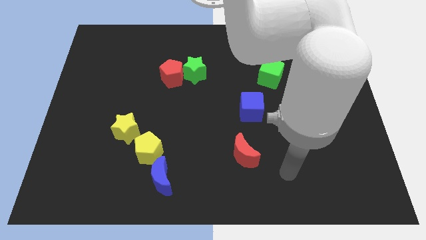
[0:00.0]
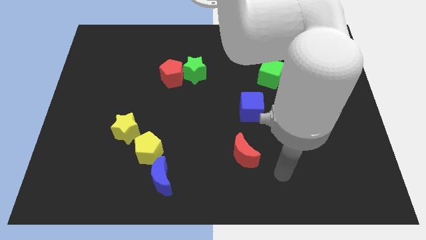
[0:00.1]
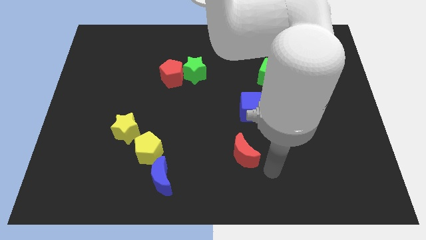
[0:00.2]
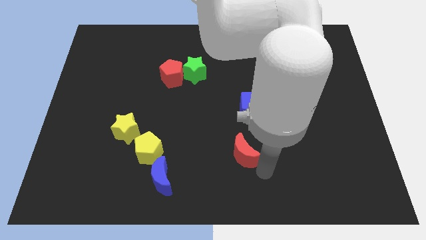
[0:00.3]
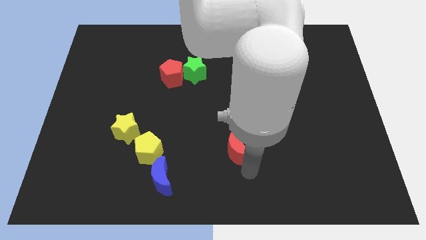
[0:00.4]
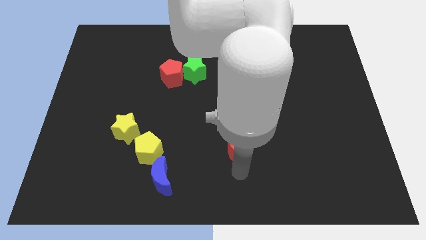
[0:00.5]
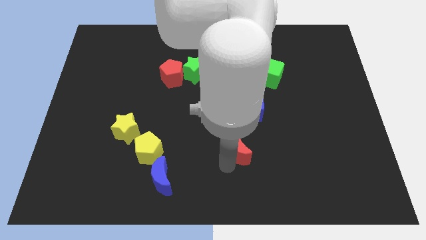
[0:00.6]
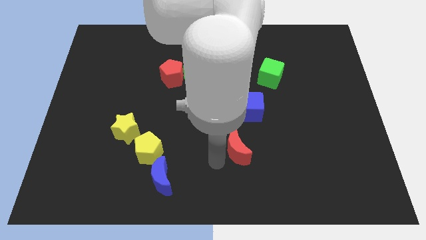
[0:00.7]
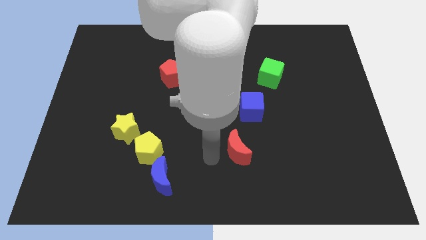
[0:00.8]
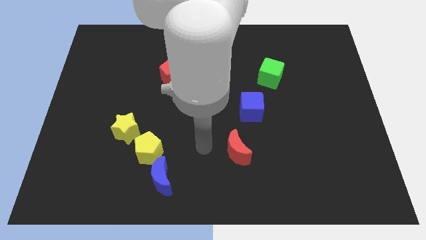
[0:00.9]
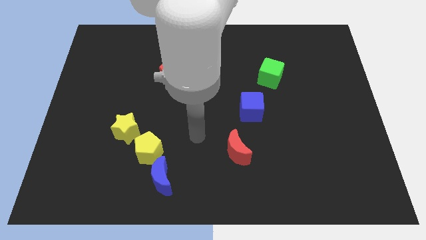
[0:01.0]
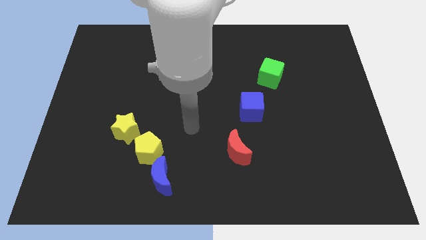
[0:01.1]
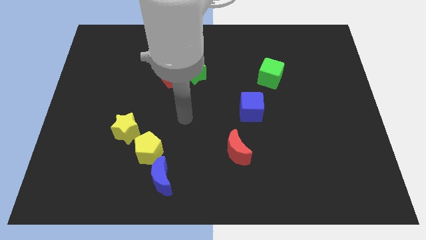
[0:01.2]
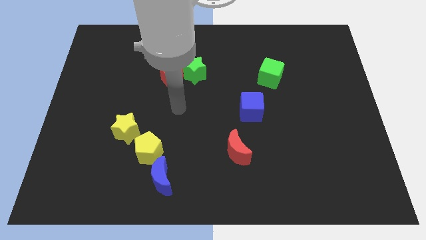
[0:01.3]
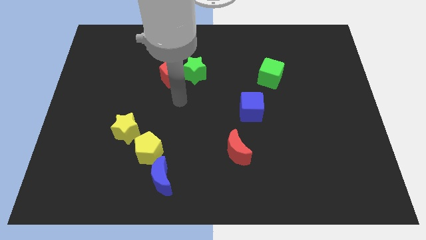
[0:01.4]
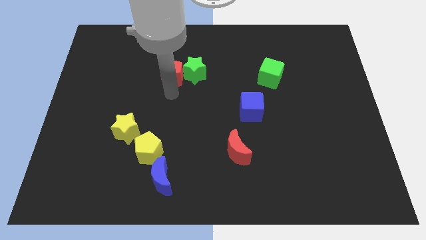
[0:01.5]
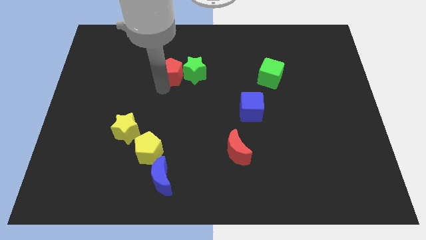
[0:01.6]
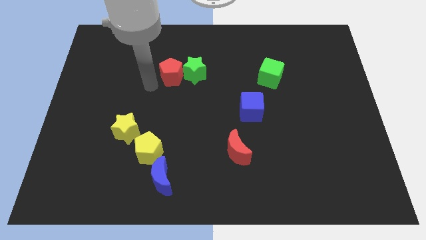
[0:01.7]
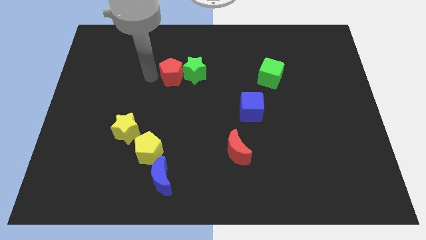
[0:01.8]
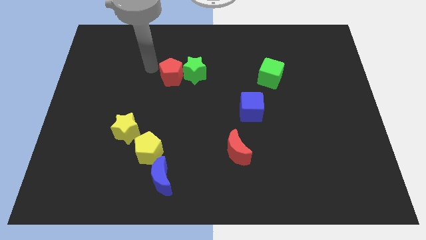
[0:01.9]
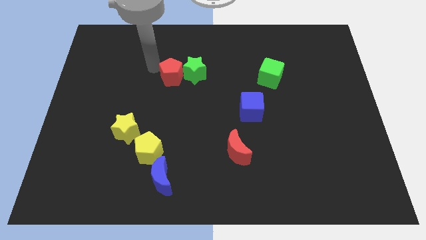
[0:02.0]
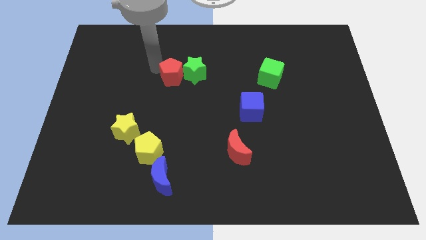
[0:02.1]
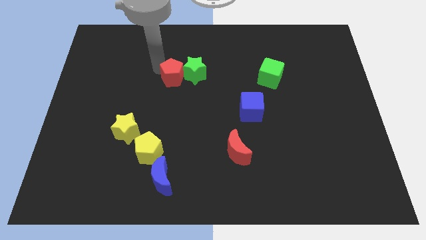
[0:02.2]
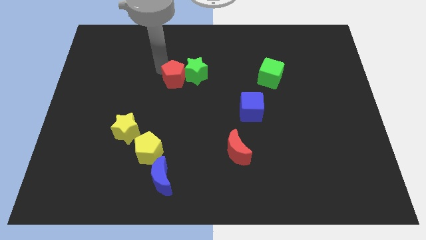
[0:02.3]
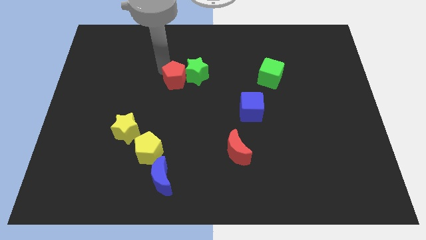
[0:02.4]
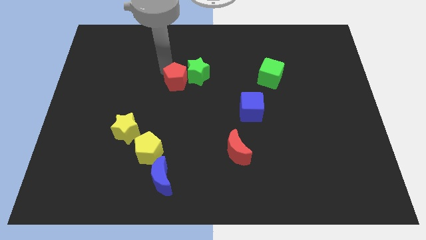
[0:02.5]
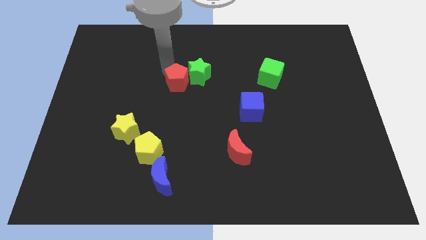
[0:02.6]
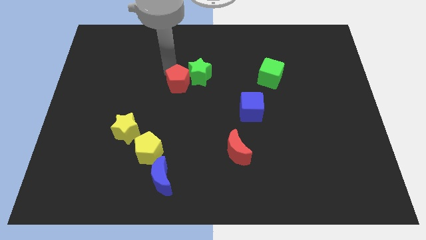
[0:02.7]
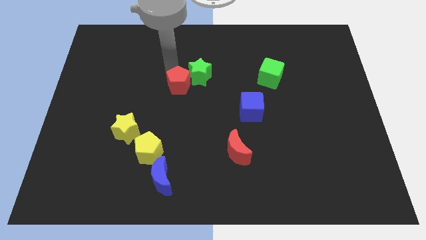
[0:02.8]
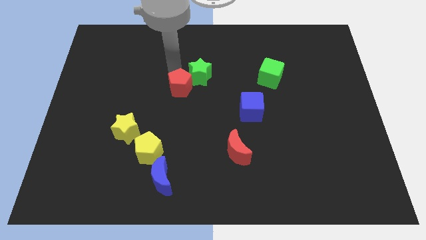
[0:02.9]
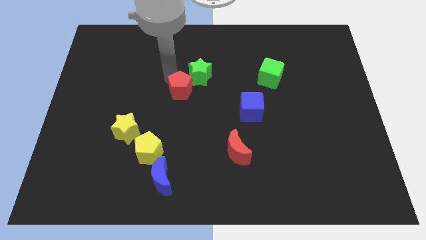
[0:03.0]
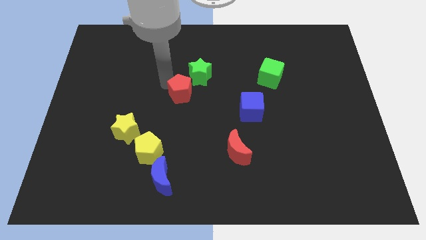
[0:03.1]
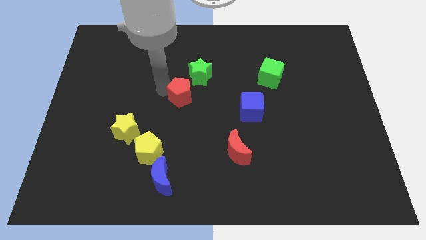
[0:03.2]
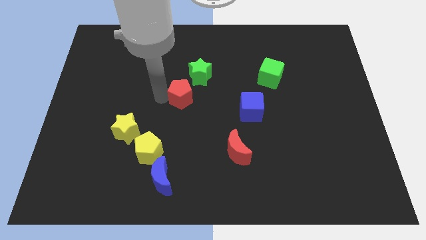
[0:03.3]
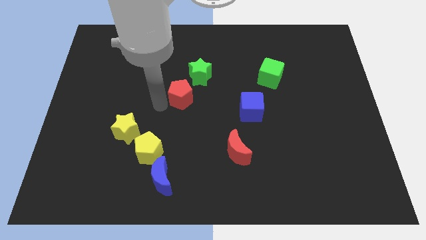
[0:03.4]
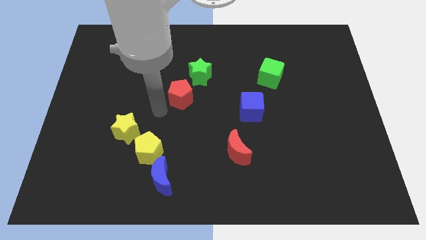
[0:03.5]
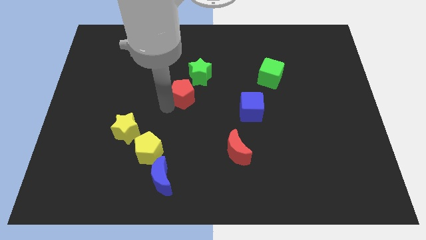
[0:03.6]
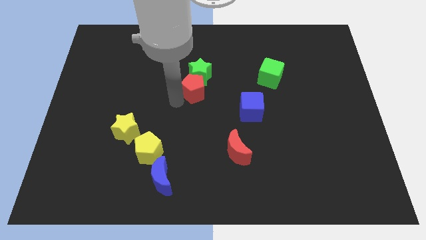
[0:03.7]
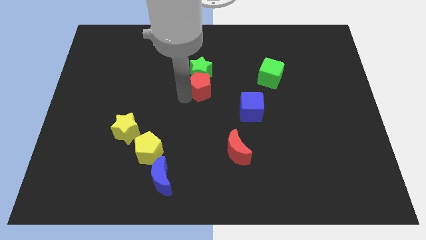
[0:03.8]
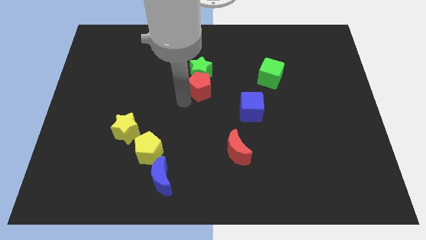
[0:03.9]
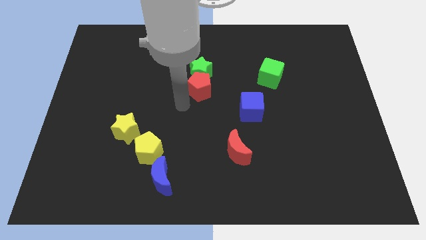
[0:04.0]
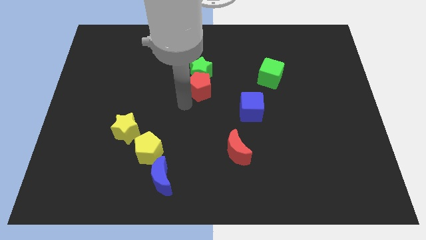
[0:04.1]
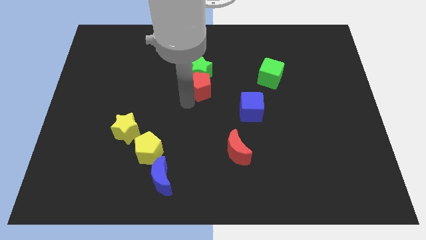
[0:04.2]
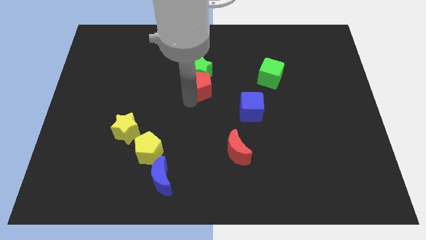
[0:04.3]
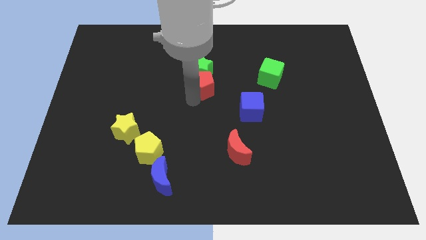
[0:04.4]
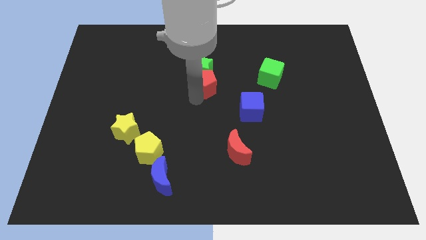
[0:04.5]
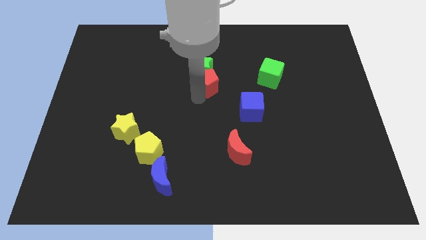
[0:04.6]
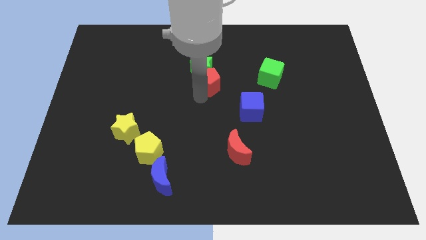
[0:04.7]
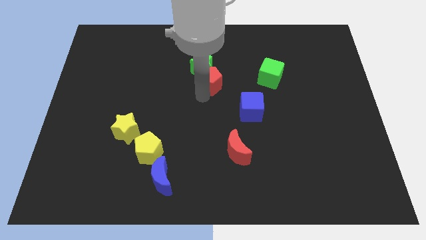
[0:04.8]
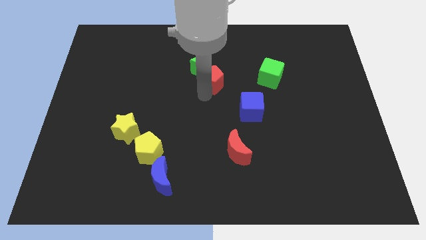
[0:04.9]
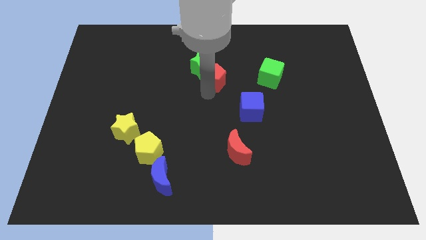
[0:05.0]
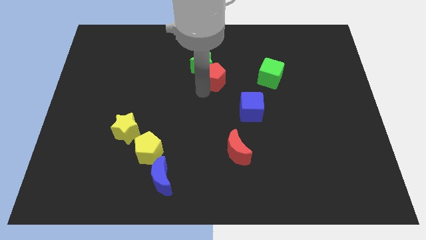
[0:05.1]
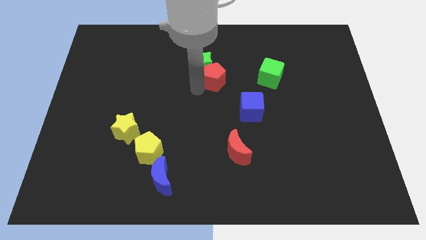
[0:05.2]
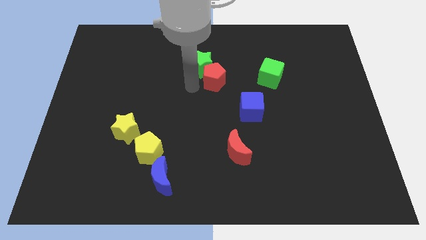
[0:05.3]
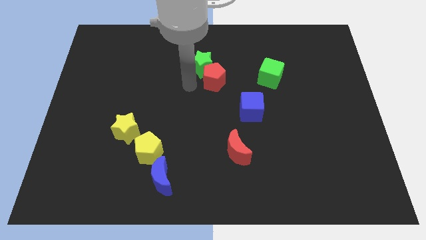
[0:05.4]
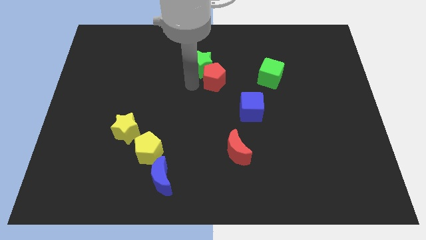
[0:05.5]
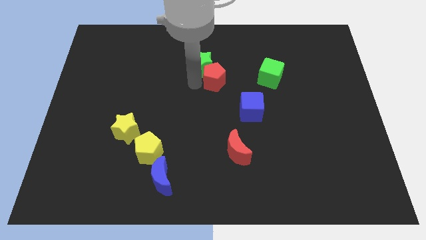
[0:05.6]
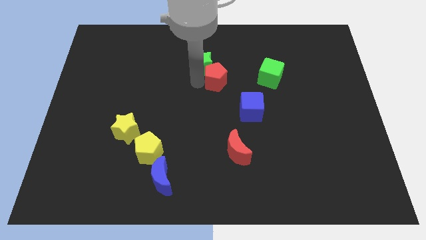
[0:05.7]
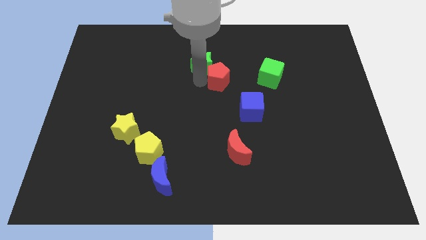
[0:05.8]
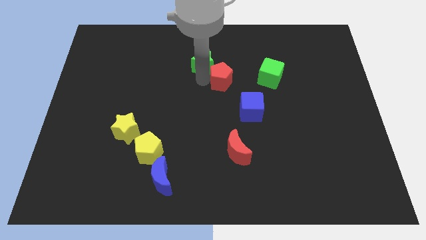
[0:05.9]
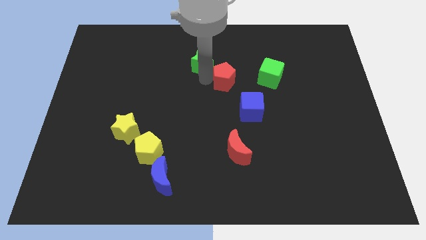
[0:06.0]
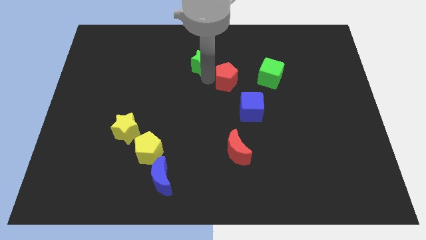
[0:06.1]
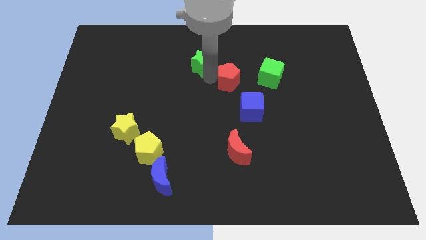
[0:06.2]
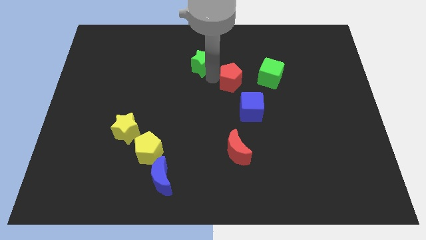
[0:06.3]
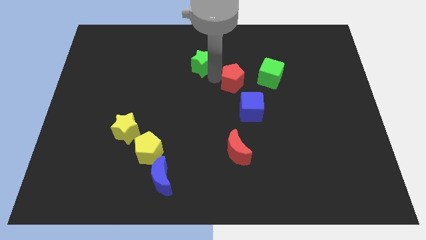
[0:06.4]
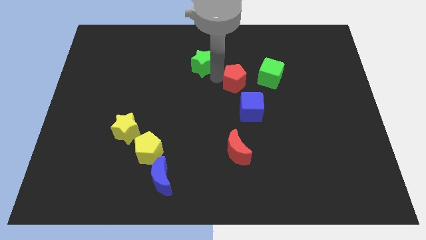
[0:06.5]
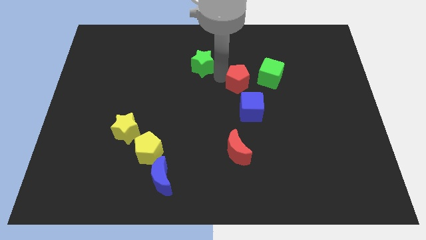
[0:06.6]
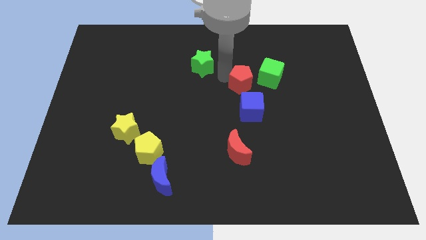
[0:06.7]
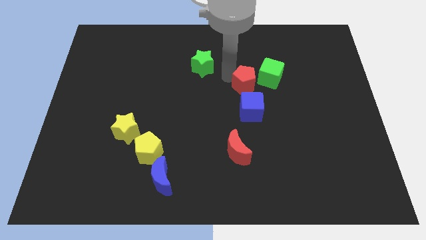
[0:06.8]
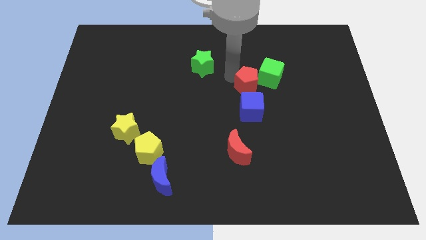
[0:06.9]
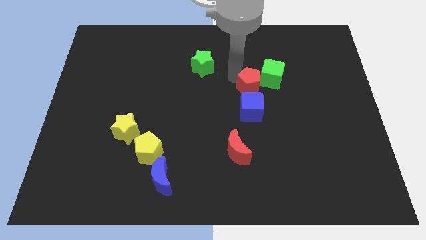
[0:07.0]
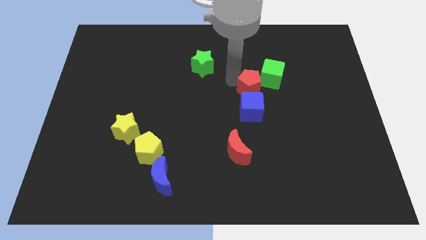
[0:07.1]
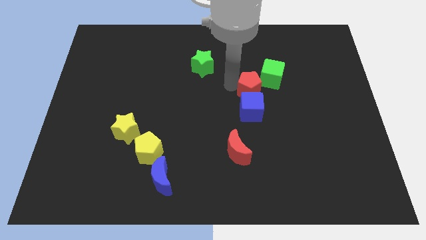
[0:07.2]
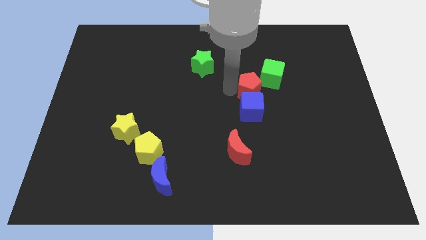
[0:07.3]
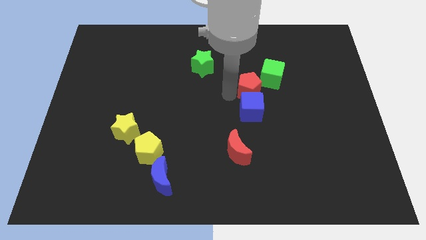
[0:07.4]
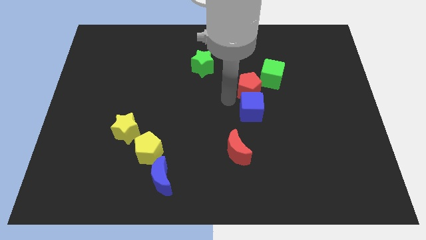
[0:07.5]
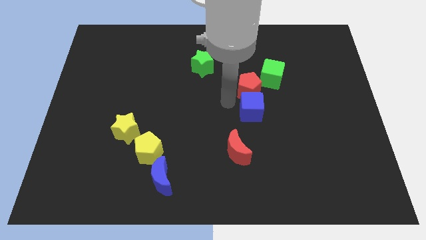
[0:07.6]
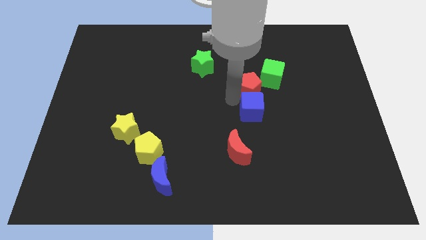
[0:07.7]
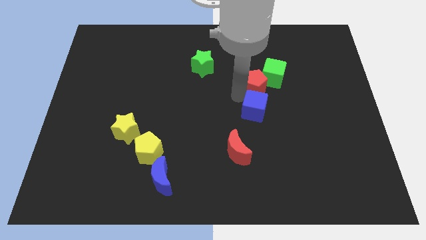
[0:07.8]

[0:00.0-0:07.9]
push the red pentagon towards the green cube
